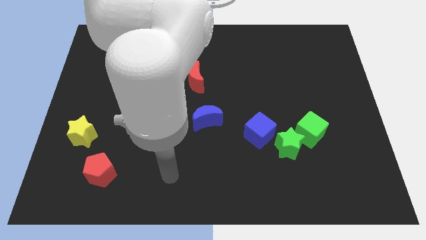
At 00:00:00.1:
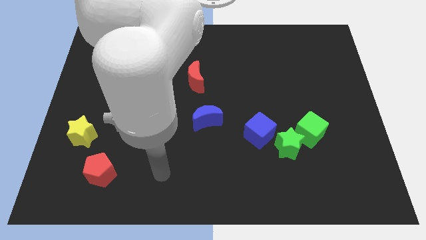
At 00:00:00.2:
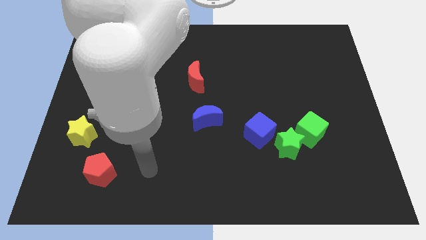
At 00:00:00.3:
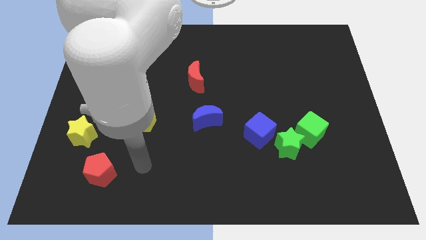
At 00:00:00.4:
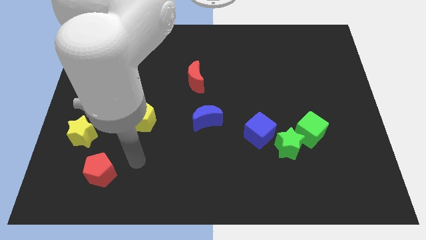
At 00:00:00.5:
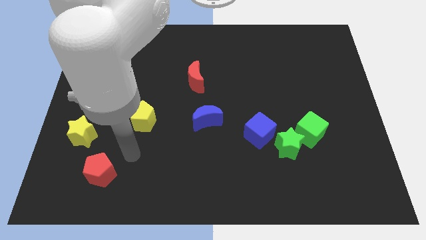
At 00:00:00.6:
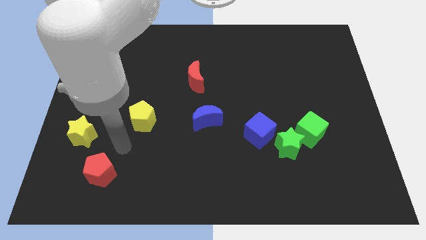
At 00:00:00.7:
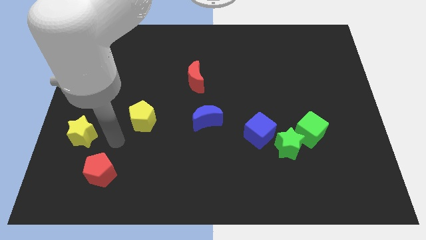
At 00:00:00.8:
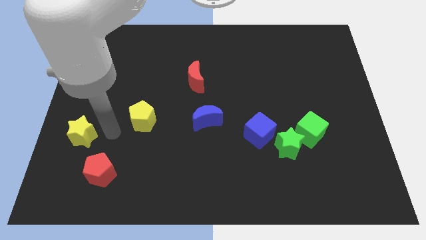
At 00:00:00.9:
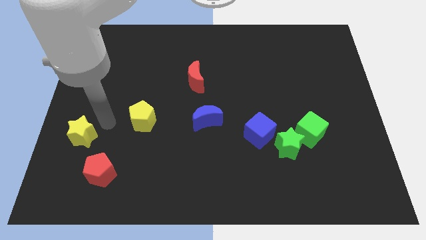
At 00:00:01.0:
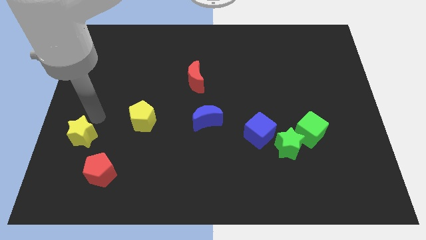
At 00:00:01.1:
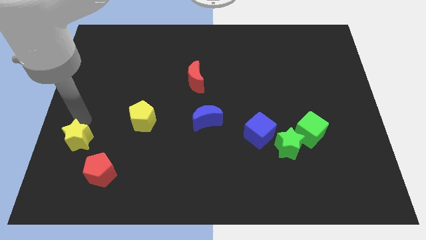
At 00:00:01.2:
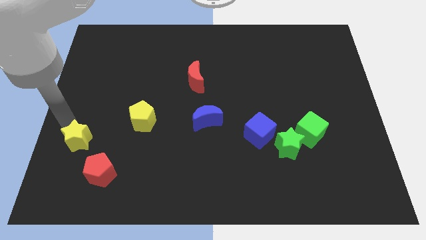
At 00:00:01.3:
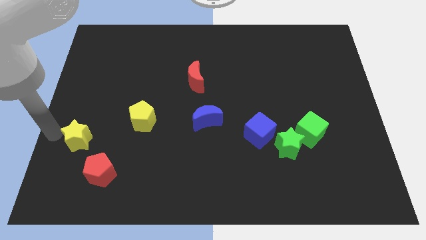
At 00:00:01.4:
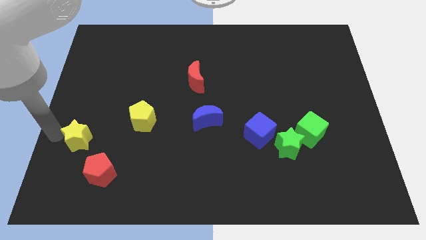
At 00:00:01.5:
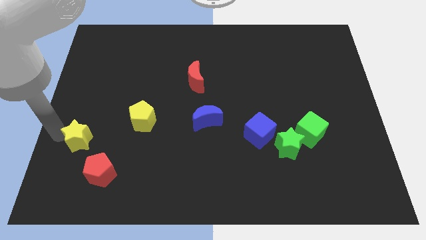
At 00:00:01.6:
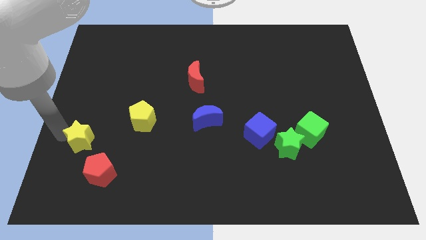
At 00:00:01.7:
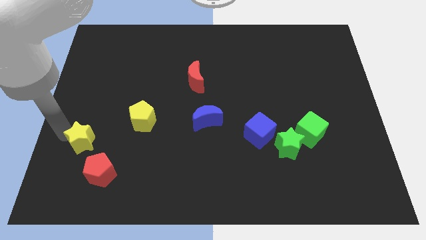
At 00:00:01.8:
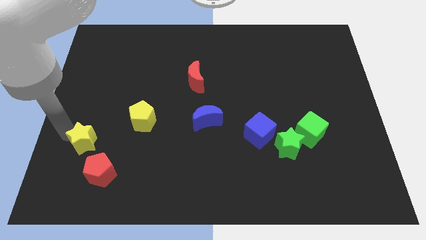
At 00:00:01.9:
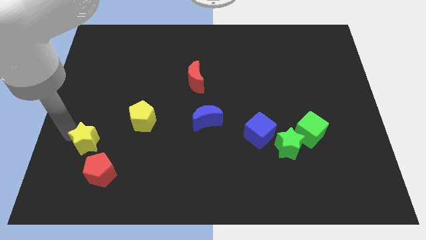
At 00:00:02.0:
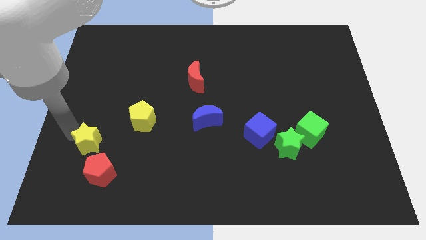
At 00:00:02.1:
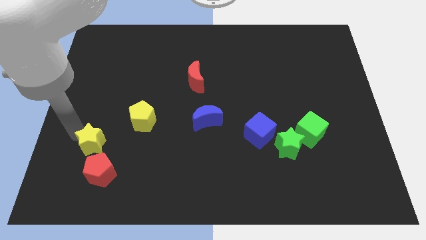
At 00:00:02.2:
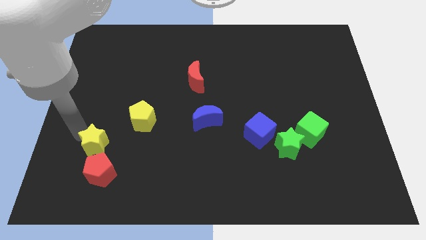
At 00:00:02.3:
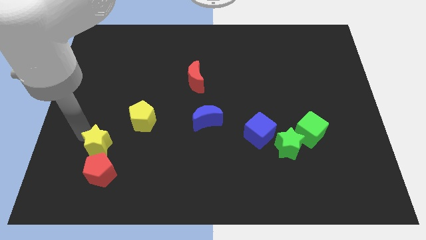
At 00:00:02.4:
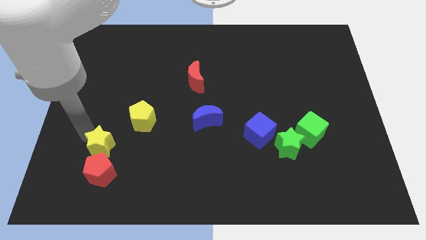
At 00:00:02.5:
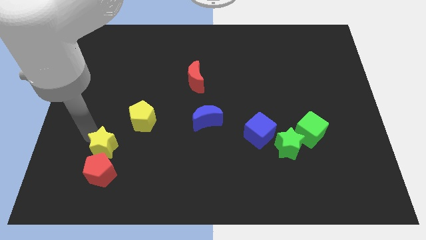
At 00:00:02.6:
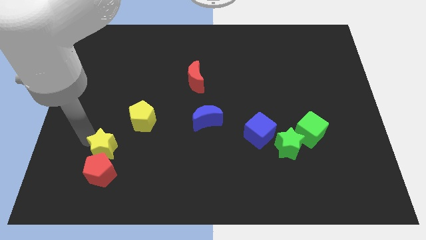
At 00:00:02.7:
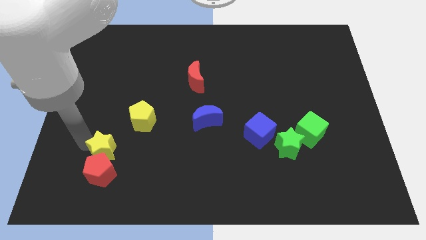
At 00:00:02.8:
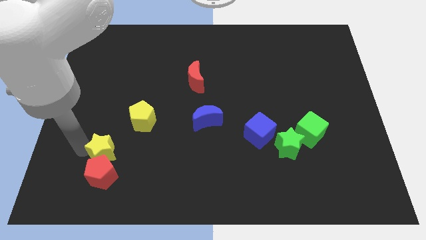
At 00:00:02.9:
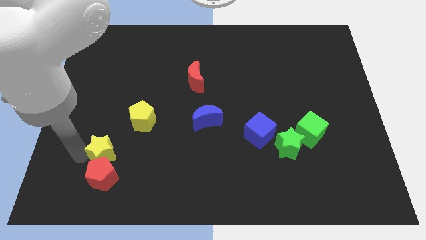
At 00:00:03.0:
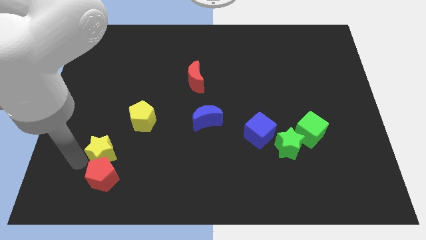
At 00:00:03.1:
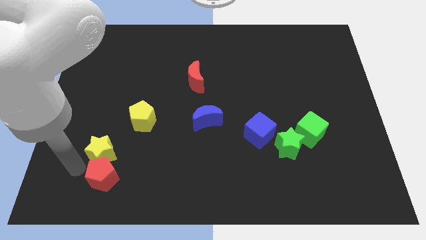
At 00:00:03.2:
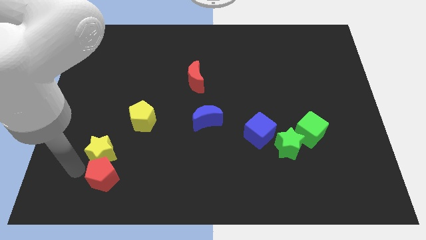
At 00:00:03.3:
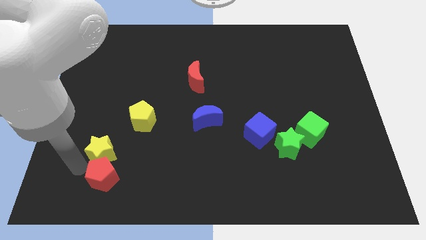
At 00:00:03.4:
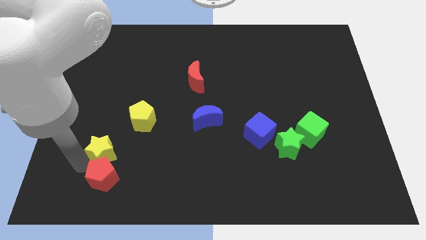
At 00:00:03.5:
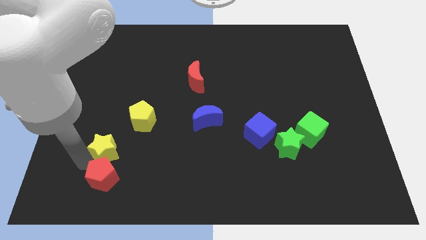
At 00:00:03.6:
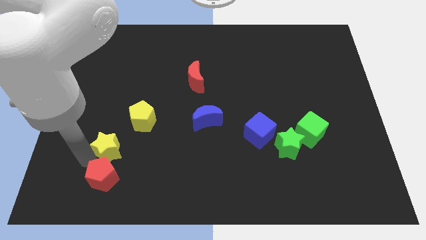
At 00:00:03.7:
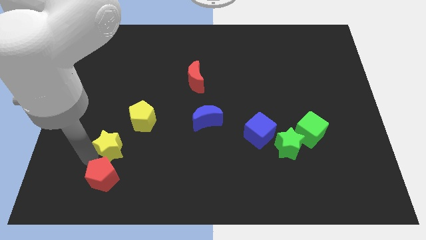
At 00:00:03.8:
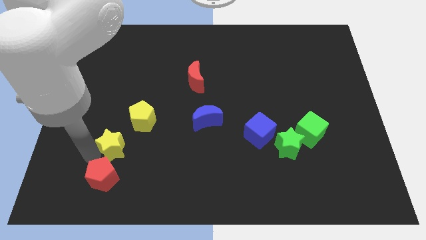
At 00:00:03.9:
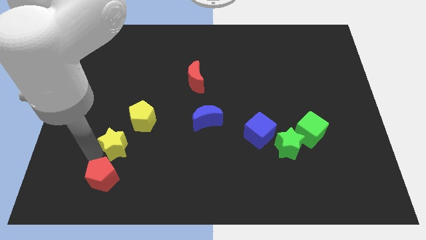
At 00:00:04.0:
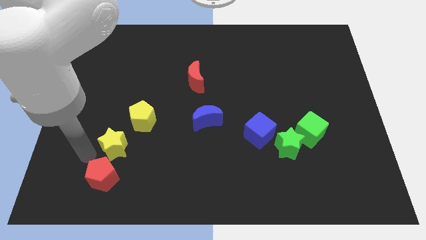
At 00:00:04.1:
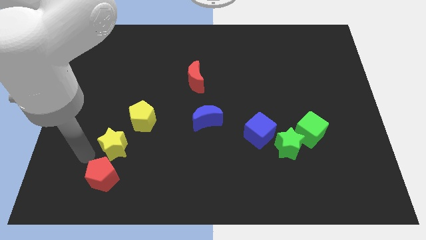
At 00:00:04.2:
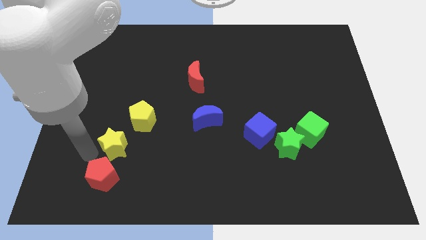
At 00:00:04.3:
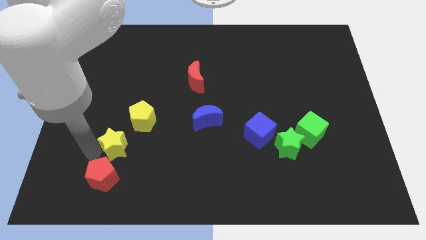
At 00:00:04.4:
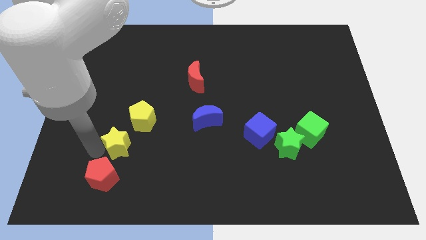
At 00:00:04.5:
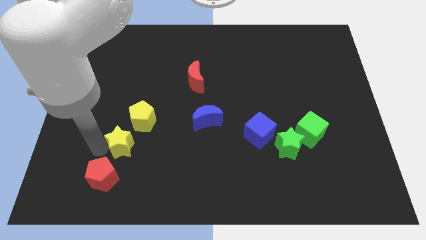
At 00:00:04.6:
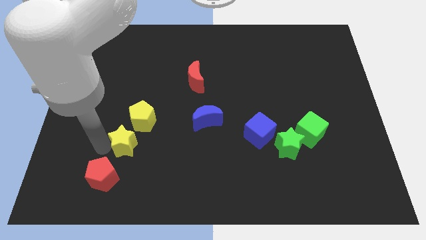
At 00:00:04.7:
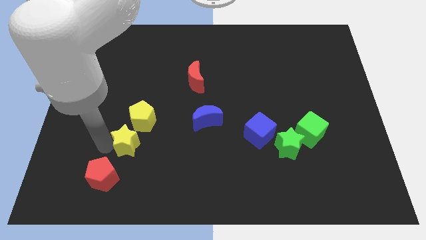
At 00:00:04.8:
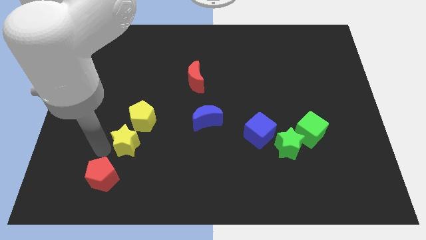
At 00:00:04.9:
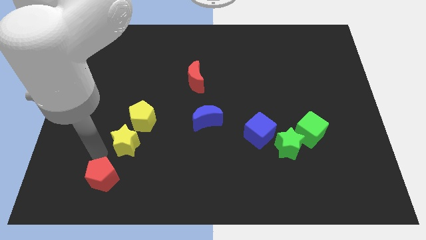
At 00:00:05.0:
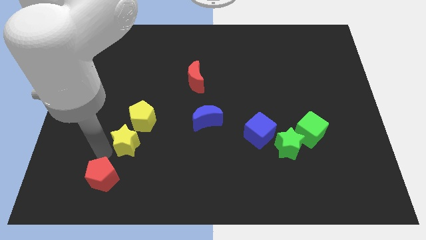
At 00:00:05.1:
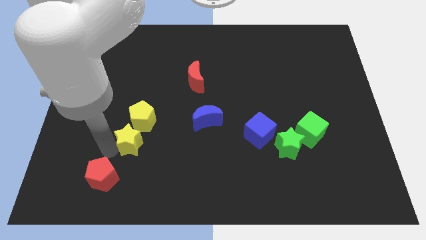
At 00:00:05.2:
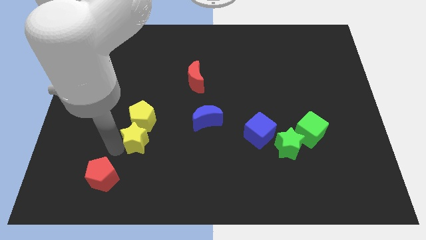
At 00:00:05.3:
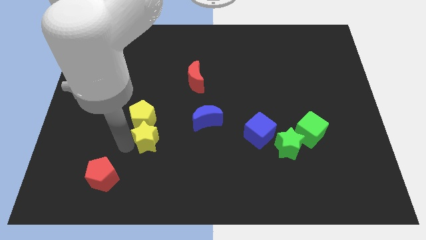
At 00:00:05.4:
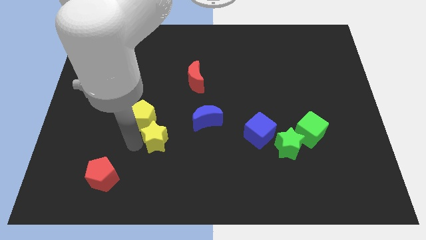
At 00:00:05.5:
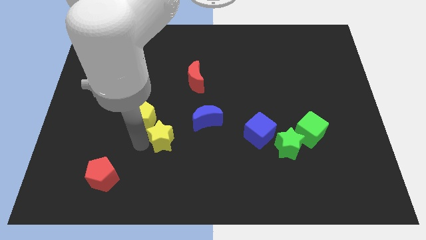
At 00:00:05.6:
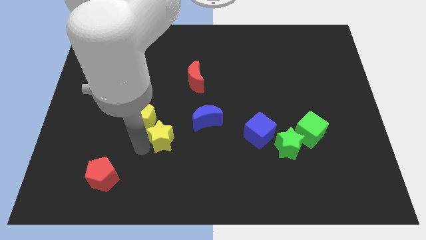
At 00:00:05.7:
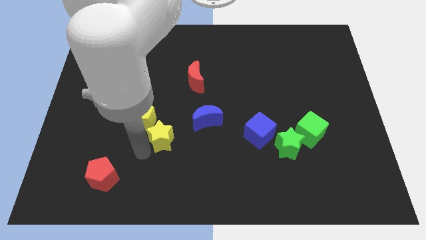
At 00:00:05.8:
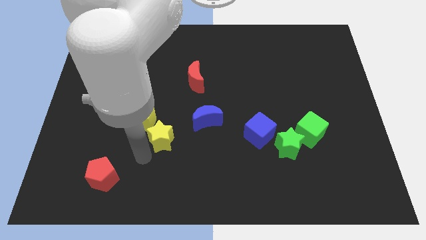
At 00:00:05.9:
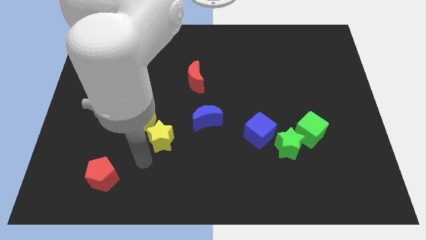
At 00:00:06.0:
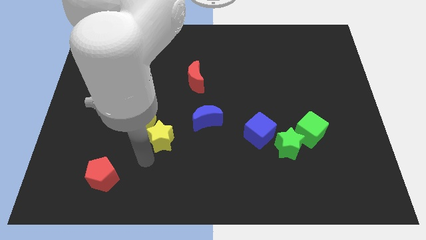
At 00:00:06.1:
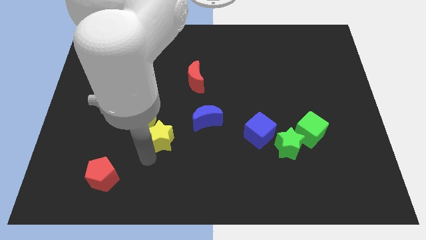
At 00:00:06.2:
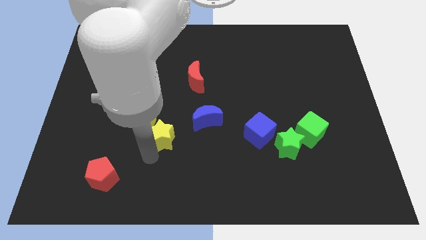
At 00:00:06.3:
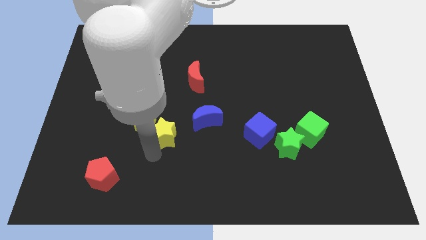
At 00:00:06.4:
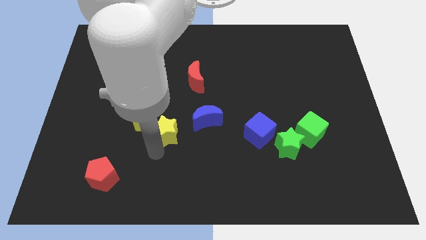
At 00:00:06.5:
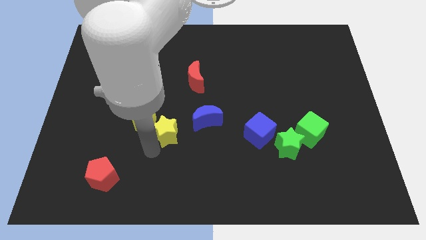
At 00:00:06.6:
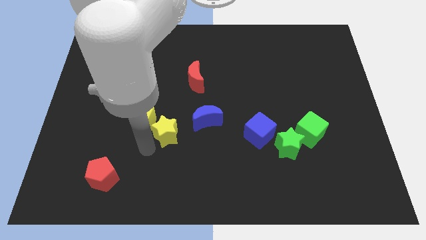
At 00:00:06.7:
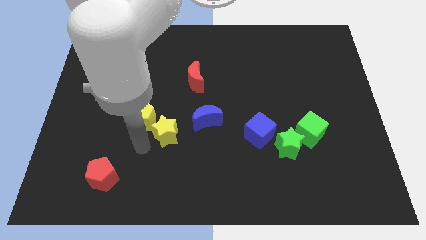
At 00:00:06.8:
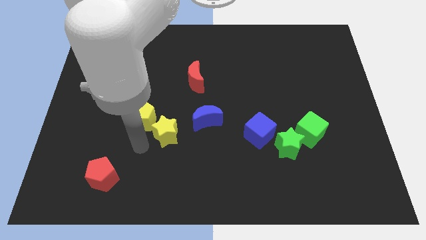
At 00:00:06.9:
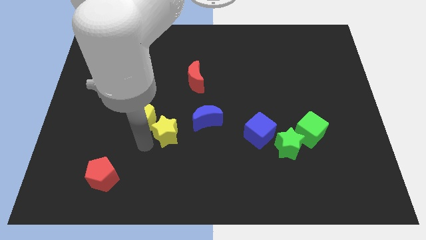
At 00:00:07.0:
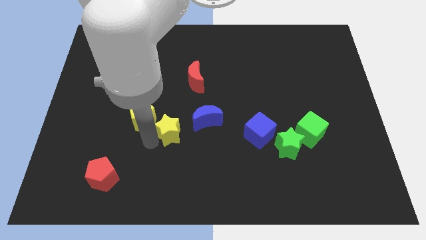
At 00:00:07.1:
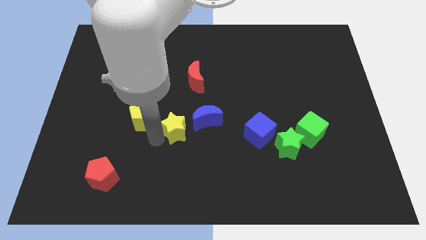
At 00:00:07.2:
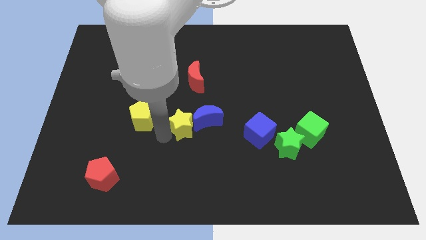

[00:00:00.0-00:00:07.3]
push the yellow star next to the blue moon
